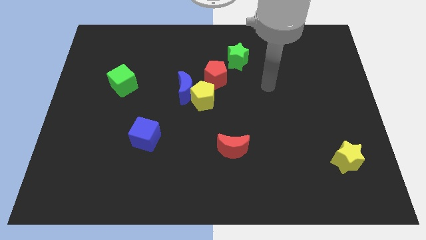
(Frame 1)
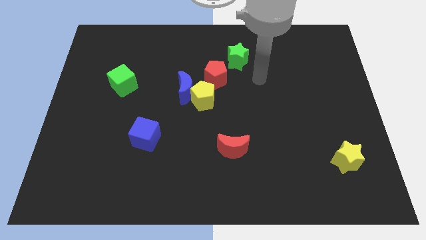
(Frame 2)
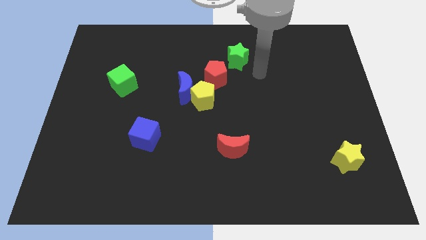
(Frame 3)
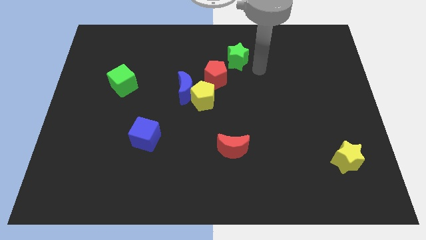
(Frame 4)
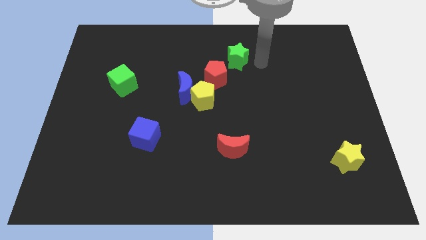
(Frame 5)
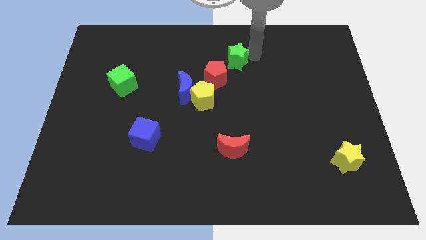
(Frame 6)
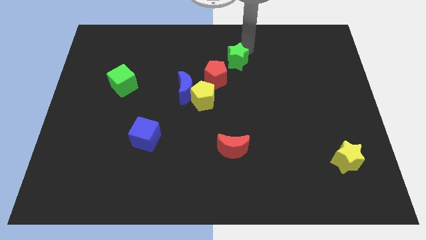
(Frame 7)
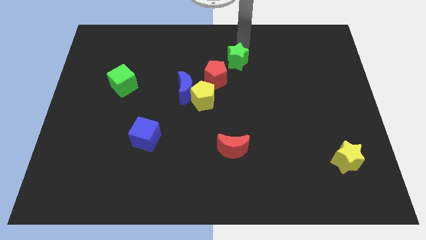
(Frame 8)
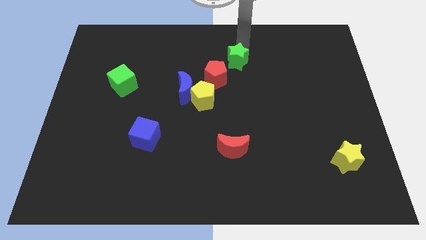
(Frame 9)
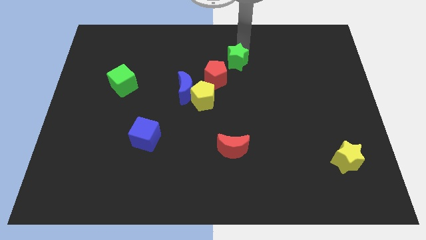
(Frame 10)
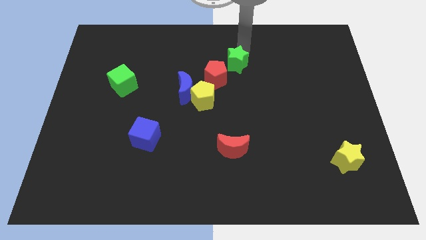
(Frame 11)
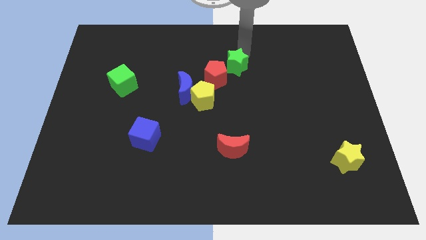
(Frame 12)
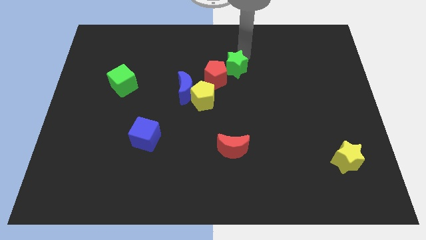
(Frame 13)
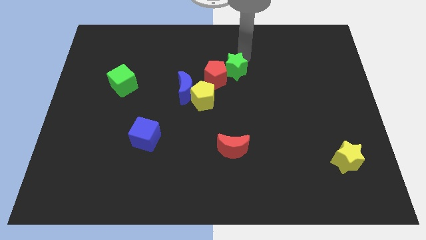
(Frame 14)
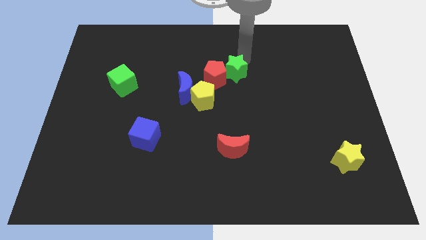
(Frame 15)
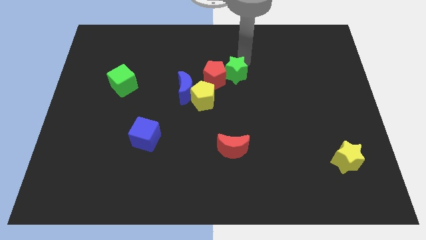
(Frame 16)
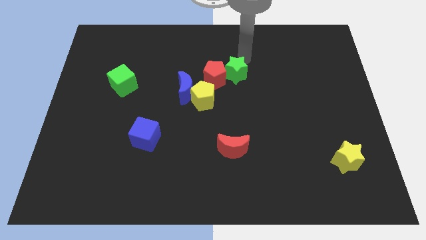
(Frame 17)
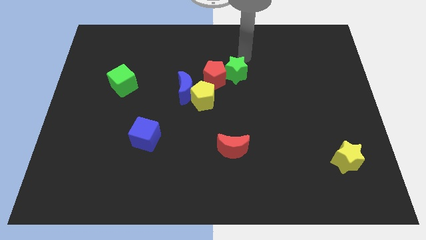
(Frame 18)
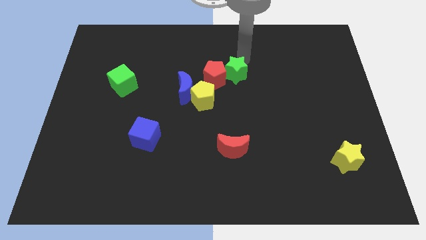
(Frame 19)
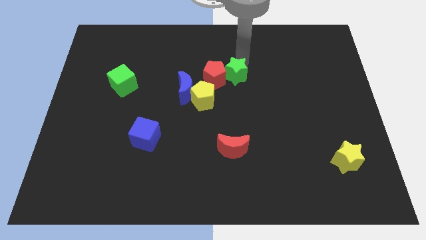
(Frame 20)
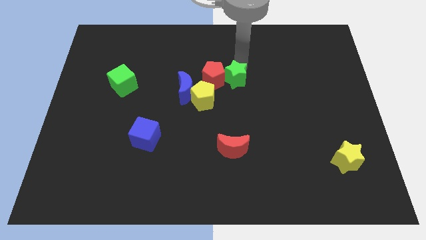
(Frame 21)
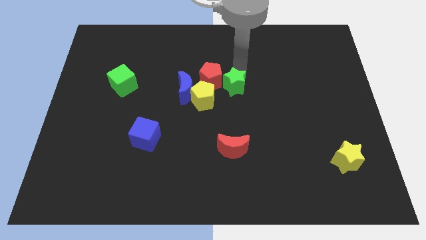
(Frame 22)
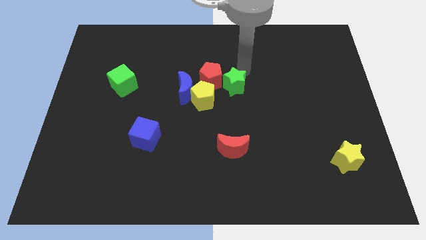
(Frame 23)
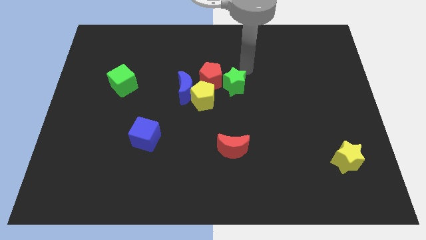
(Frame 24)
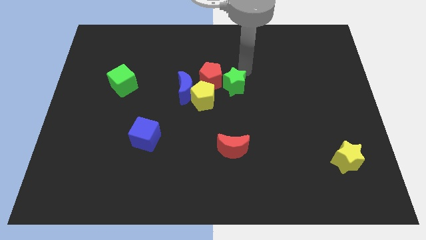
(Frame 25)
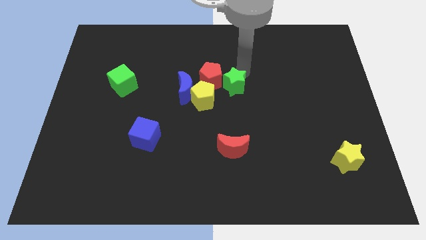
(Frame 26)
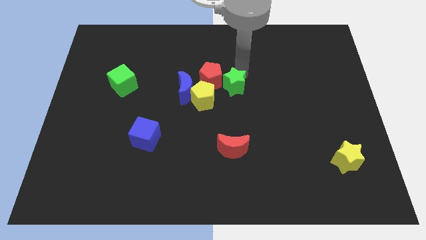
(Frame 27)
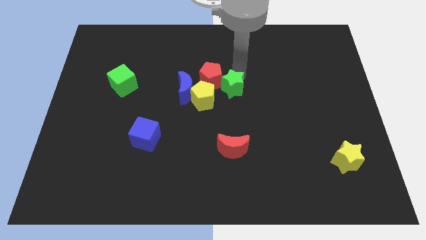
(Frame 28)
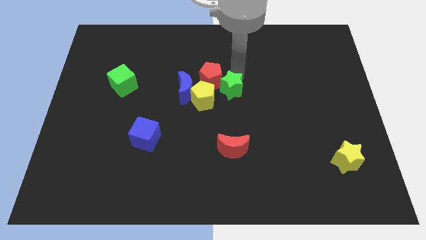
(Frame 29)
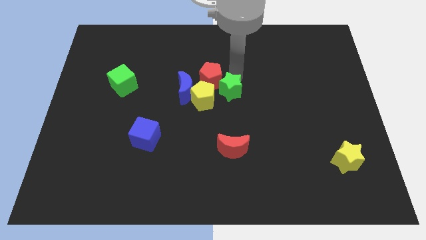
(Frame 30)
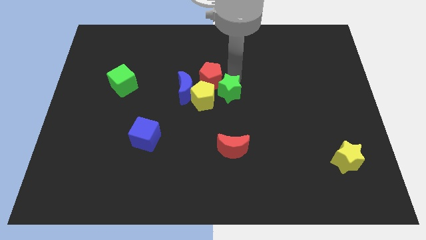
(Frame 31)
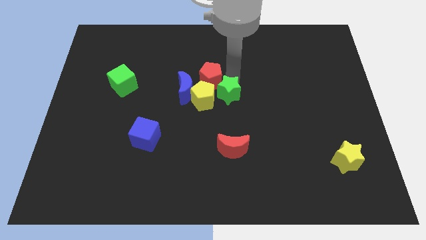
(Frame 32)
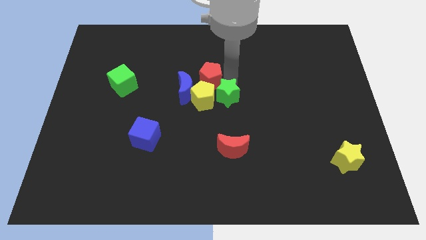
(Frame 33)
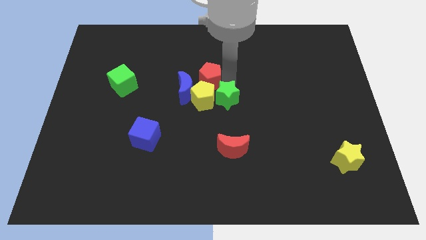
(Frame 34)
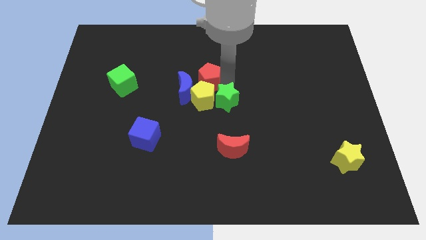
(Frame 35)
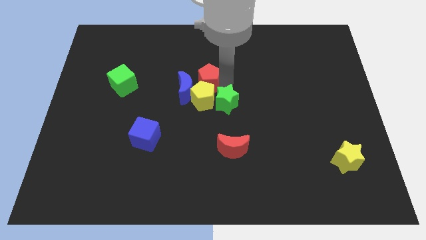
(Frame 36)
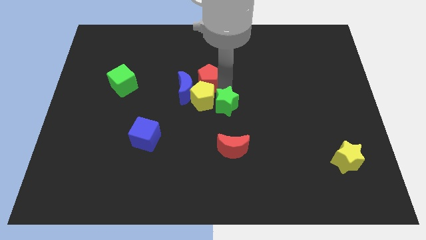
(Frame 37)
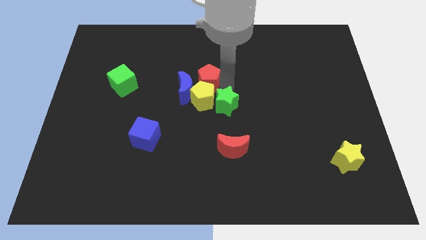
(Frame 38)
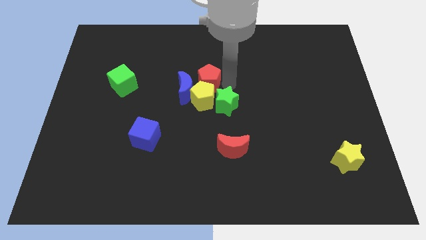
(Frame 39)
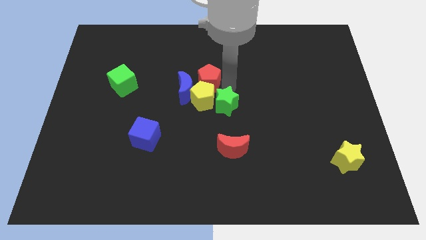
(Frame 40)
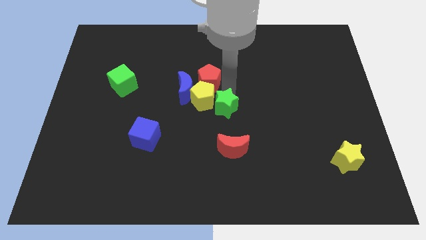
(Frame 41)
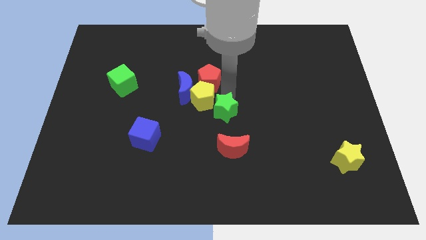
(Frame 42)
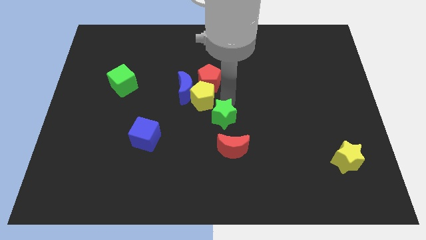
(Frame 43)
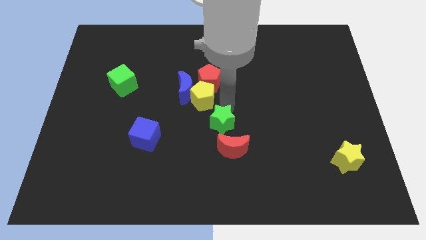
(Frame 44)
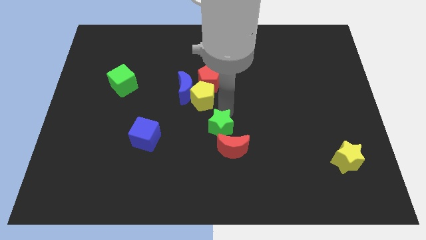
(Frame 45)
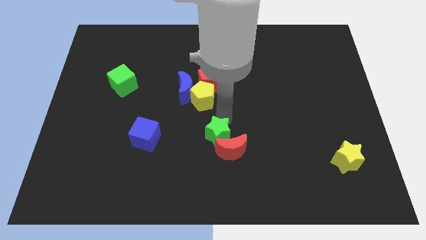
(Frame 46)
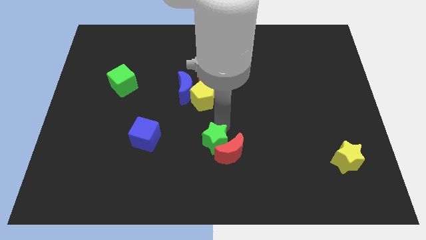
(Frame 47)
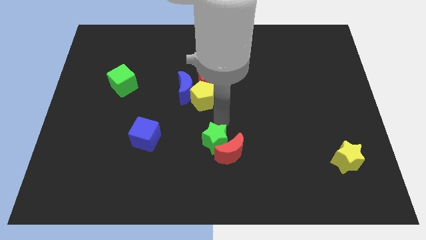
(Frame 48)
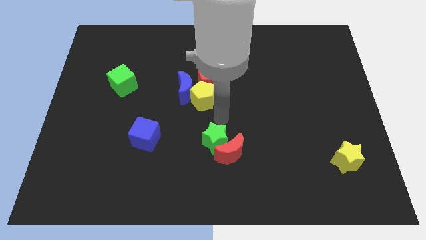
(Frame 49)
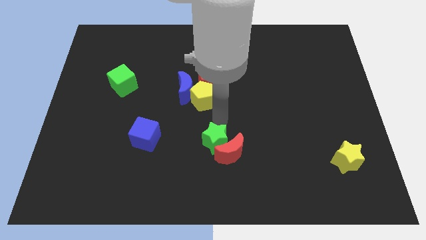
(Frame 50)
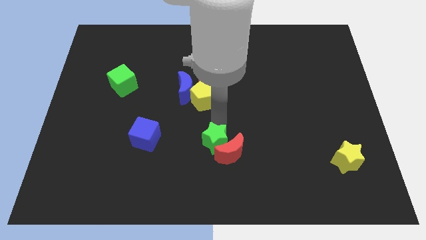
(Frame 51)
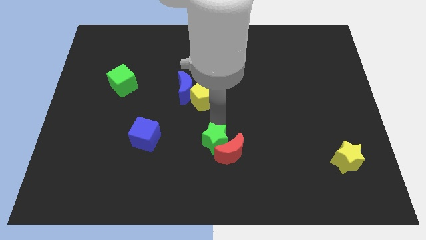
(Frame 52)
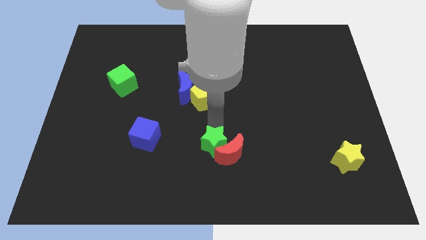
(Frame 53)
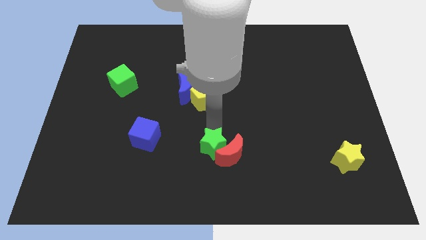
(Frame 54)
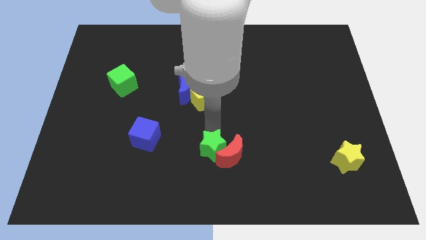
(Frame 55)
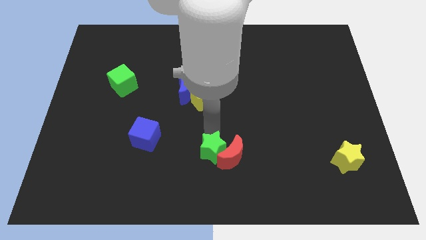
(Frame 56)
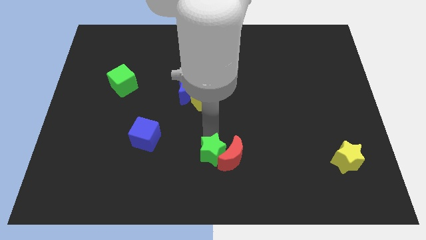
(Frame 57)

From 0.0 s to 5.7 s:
slide the green star to the bottom side

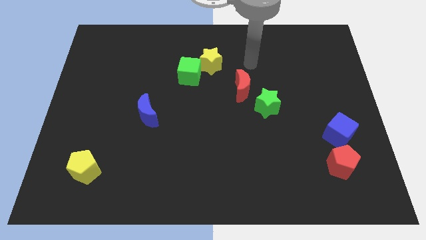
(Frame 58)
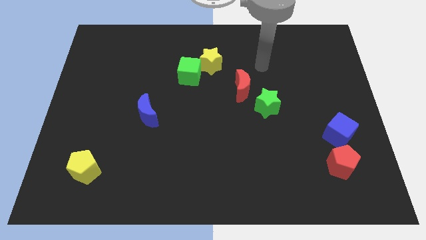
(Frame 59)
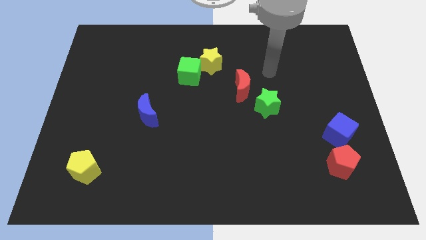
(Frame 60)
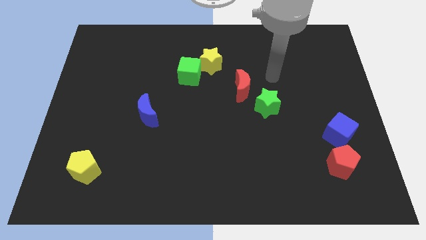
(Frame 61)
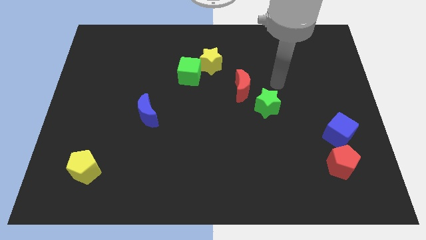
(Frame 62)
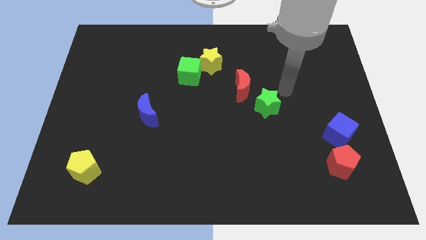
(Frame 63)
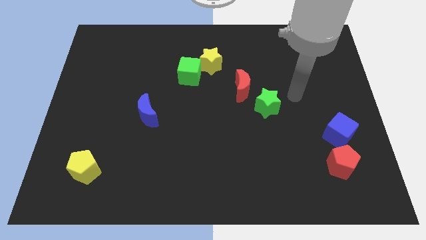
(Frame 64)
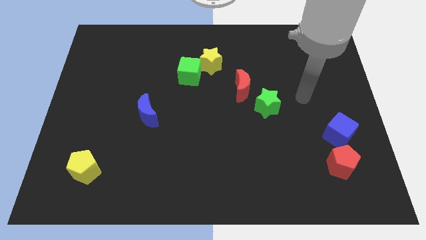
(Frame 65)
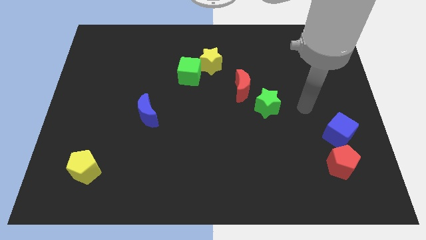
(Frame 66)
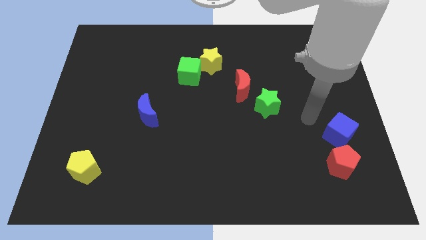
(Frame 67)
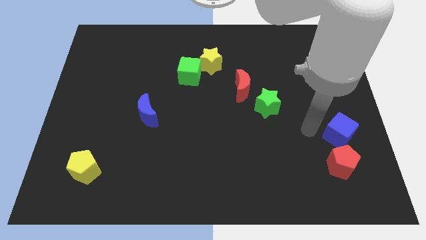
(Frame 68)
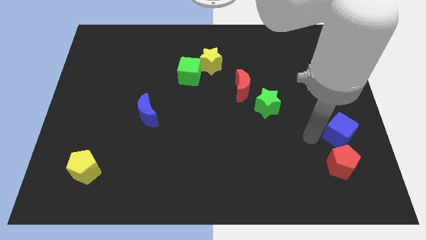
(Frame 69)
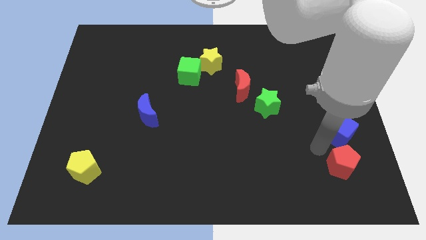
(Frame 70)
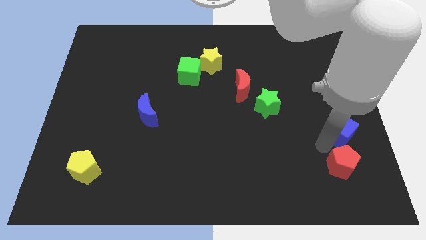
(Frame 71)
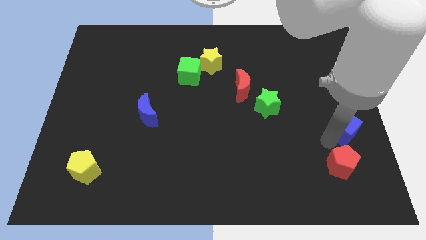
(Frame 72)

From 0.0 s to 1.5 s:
move the blue cube to the center right

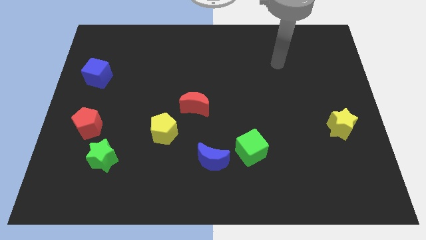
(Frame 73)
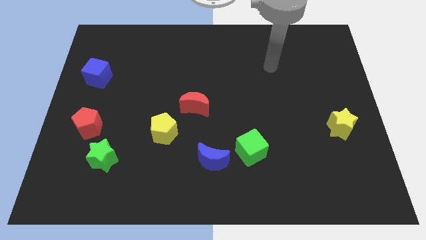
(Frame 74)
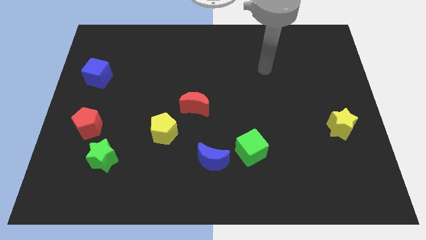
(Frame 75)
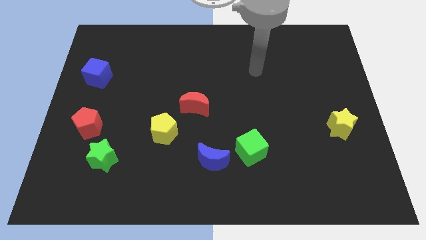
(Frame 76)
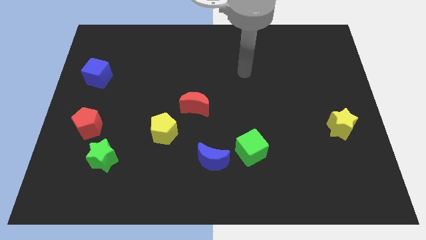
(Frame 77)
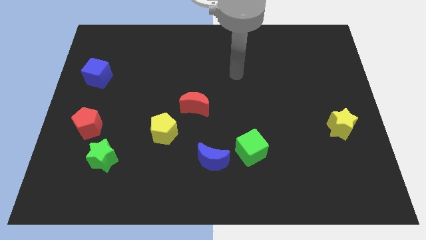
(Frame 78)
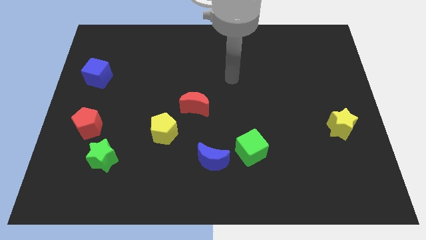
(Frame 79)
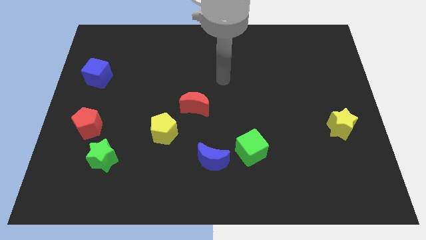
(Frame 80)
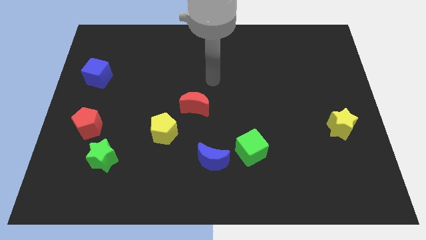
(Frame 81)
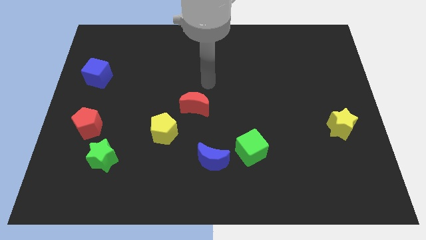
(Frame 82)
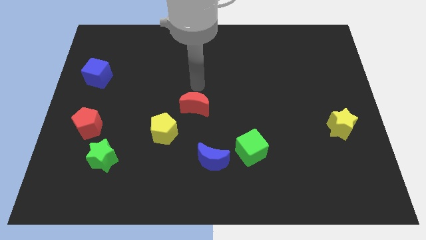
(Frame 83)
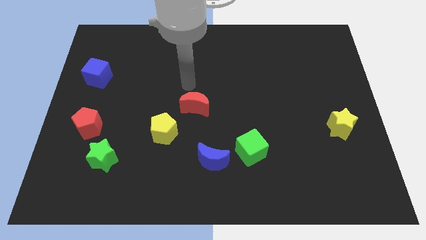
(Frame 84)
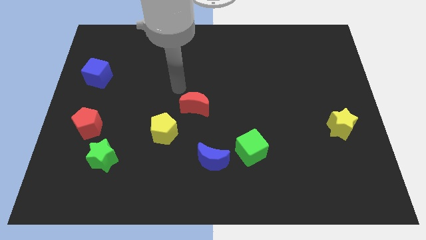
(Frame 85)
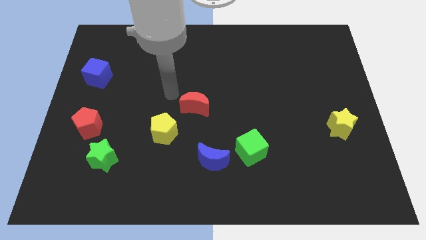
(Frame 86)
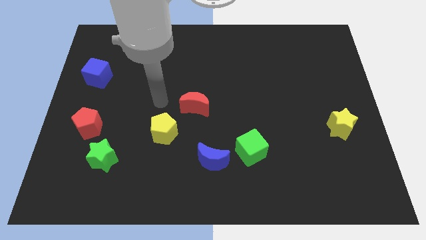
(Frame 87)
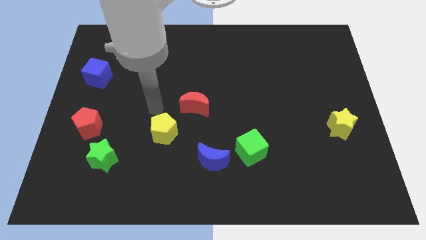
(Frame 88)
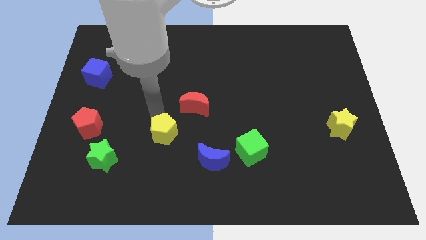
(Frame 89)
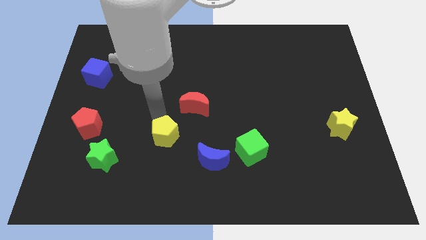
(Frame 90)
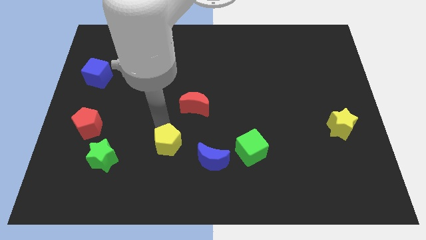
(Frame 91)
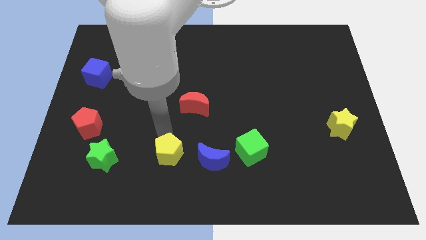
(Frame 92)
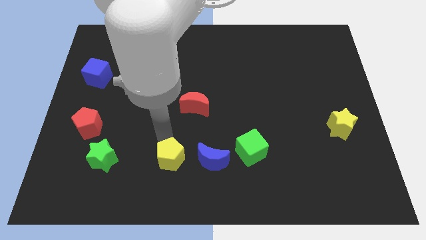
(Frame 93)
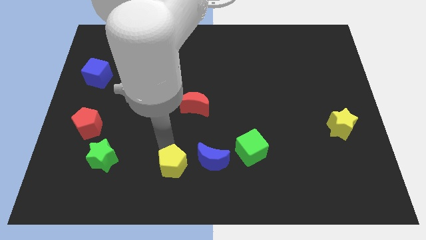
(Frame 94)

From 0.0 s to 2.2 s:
slide the yellow pentagon to the bottom side
